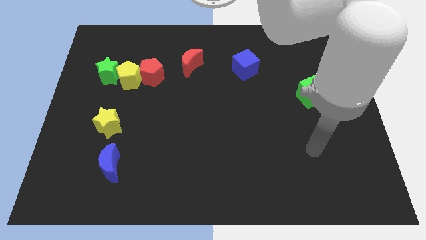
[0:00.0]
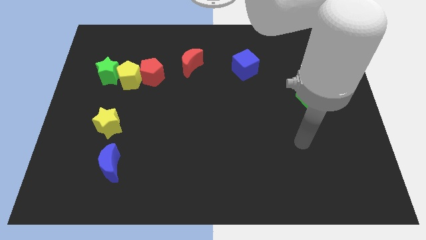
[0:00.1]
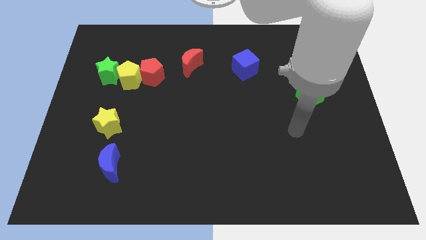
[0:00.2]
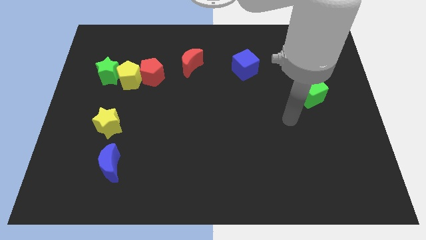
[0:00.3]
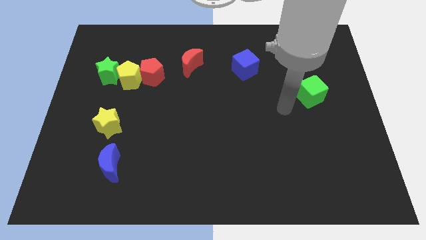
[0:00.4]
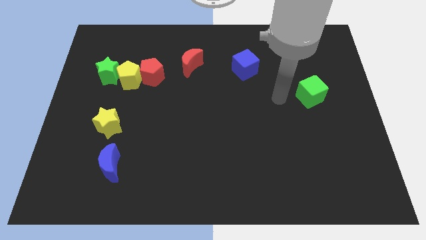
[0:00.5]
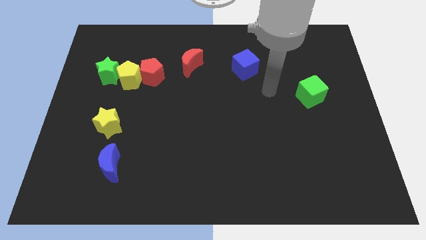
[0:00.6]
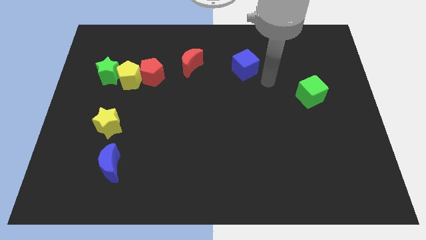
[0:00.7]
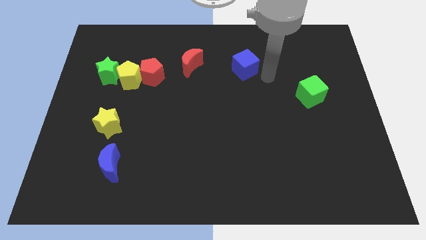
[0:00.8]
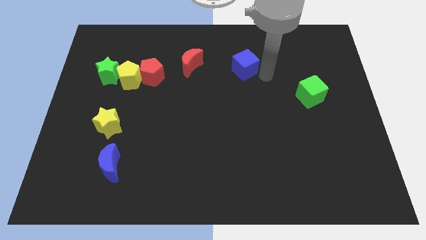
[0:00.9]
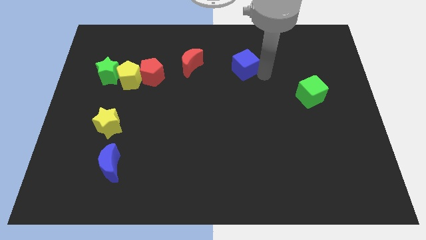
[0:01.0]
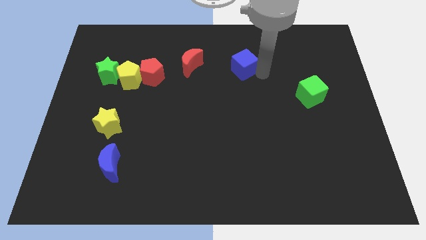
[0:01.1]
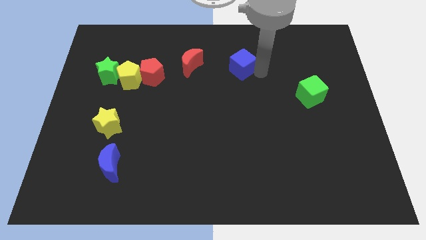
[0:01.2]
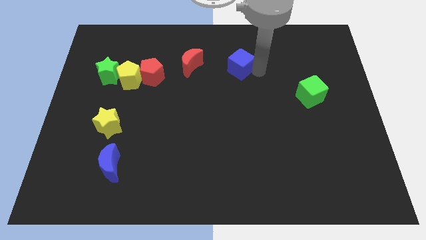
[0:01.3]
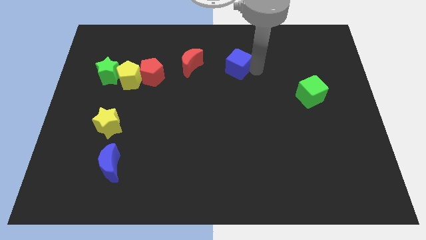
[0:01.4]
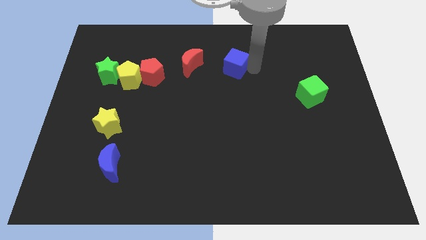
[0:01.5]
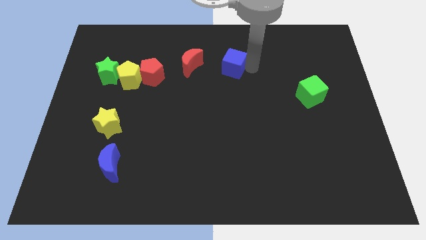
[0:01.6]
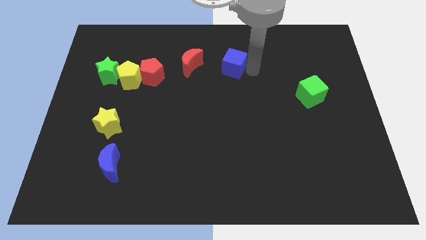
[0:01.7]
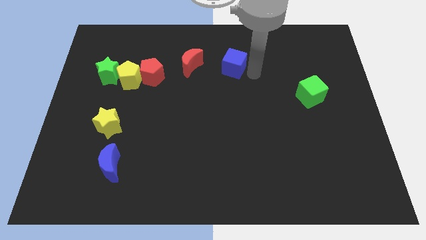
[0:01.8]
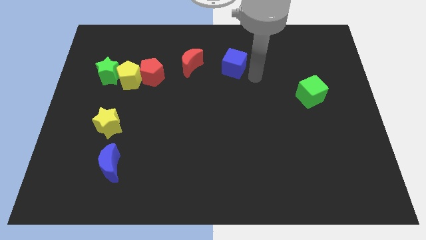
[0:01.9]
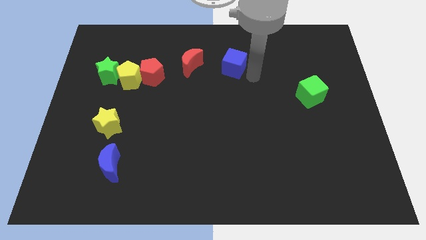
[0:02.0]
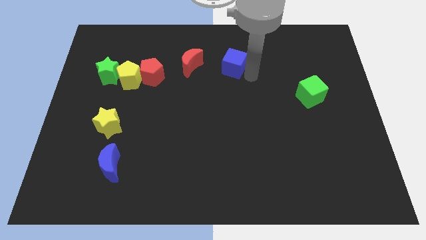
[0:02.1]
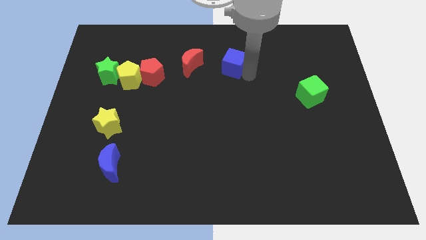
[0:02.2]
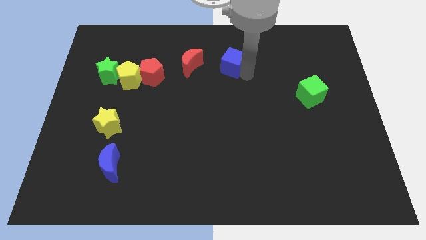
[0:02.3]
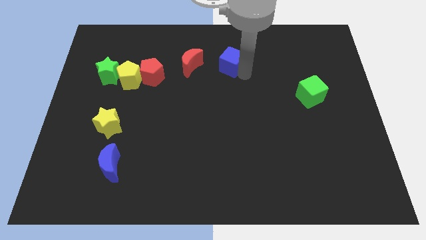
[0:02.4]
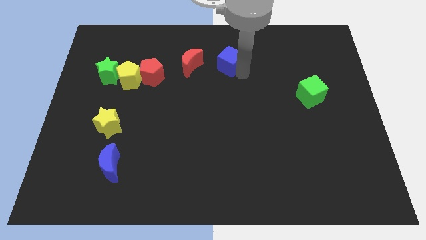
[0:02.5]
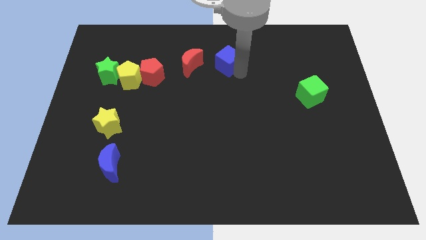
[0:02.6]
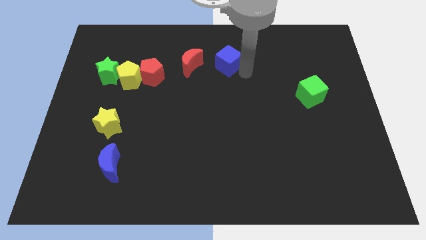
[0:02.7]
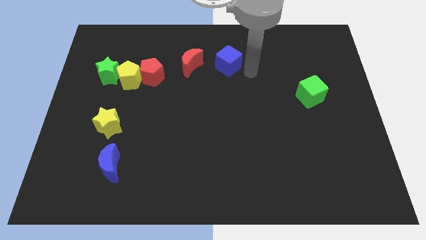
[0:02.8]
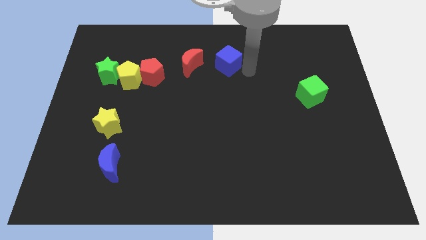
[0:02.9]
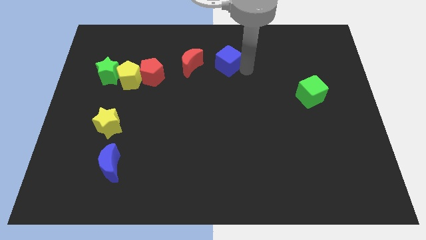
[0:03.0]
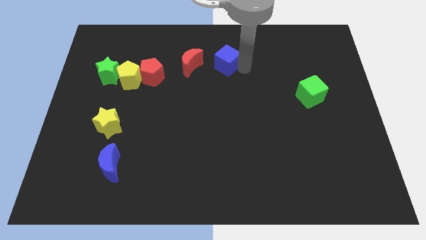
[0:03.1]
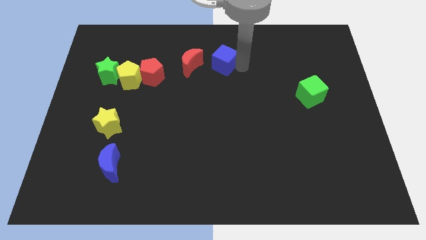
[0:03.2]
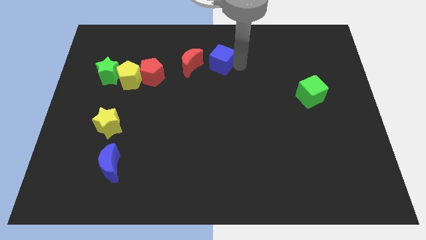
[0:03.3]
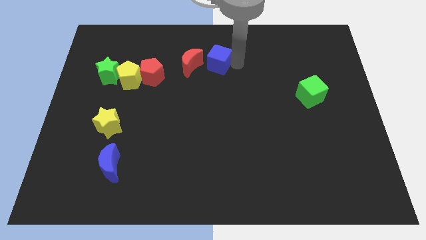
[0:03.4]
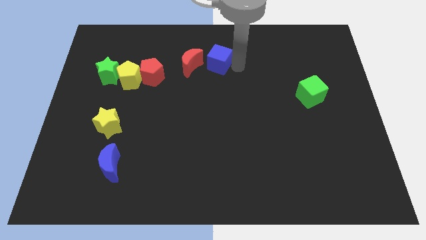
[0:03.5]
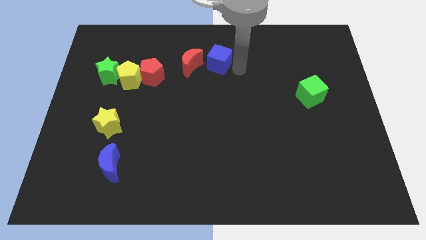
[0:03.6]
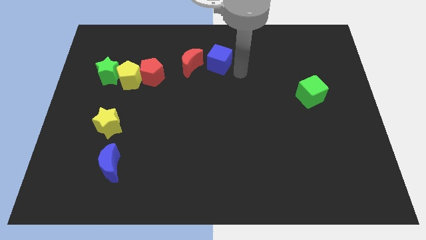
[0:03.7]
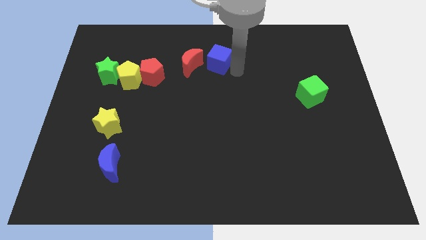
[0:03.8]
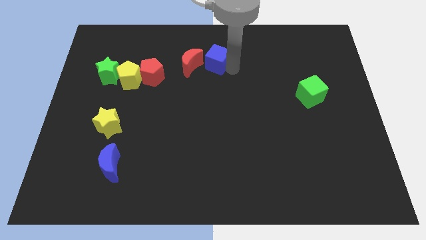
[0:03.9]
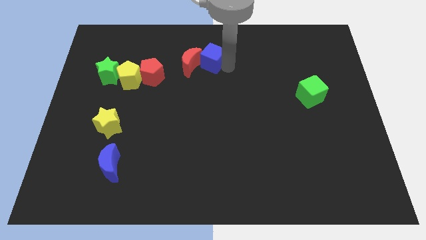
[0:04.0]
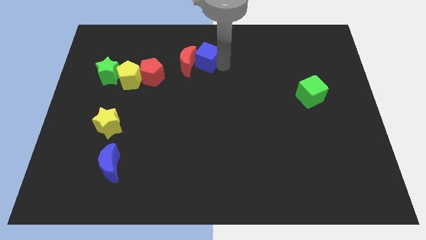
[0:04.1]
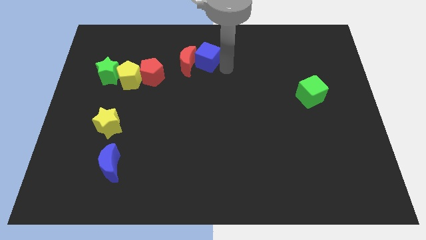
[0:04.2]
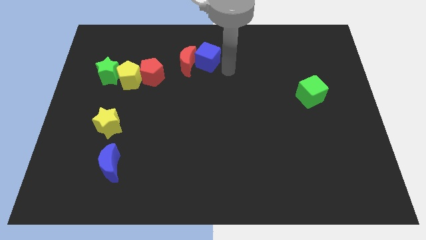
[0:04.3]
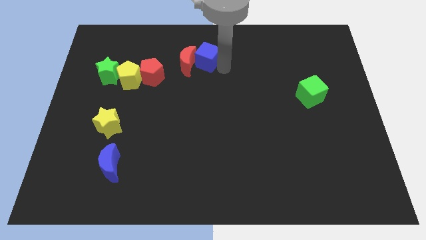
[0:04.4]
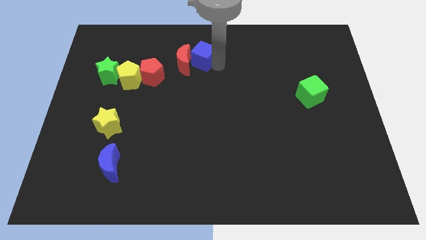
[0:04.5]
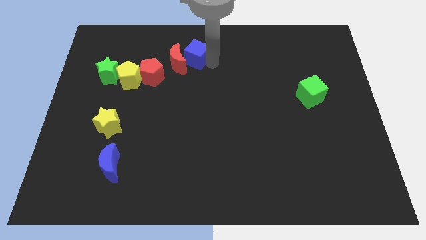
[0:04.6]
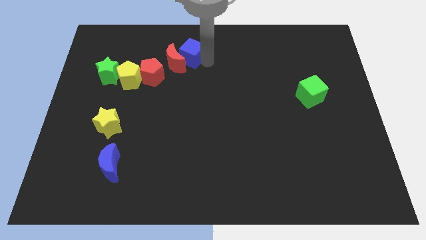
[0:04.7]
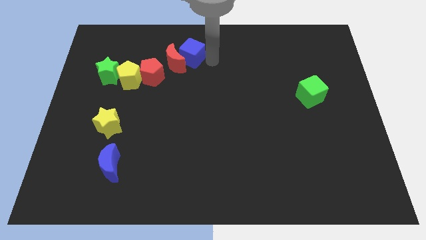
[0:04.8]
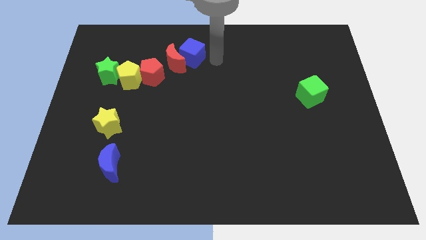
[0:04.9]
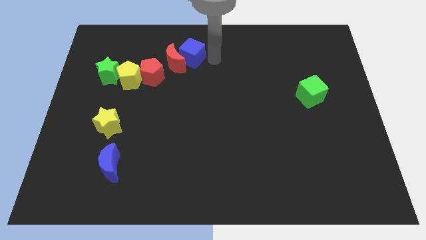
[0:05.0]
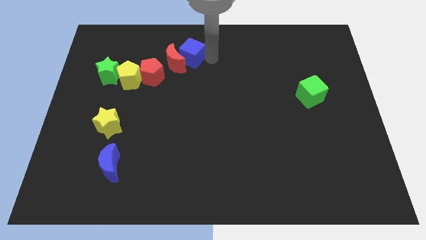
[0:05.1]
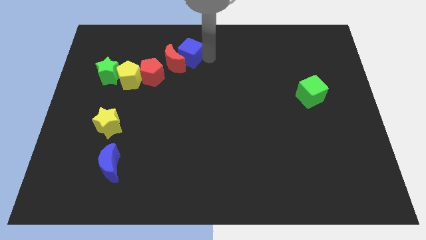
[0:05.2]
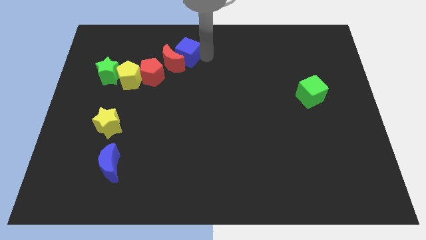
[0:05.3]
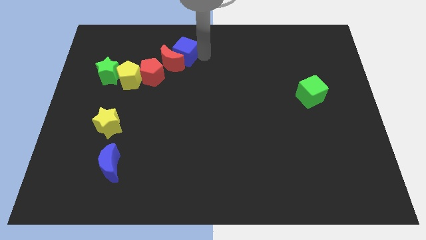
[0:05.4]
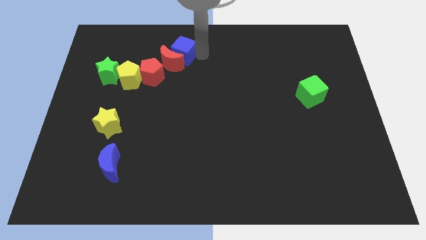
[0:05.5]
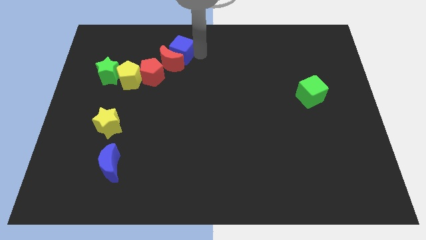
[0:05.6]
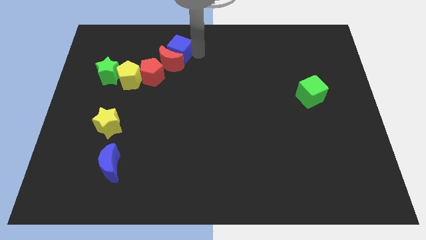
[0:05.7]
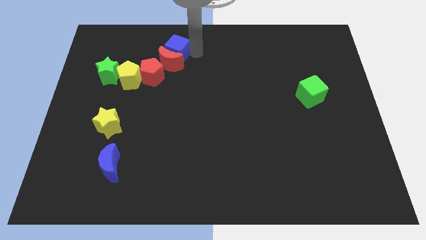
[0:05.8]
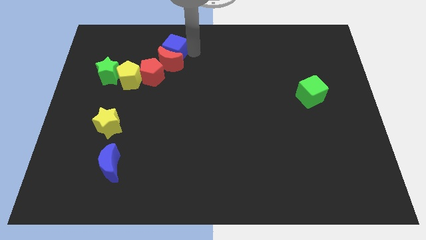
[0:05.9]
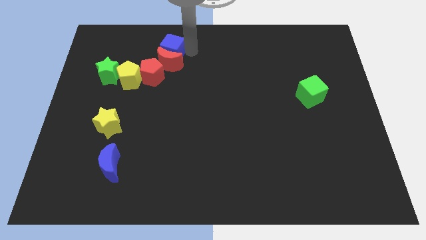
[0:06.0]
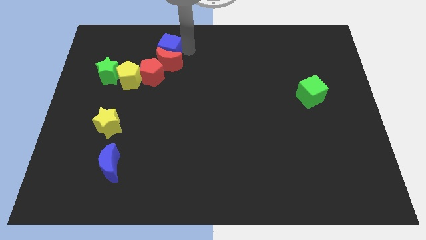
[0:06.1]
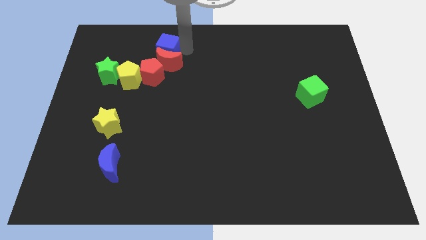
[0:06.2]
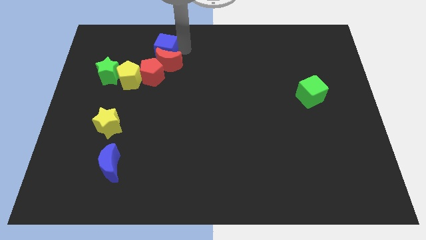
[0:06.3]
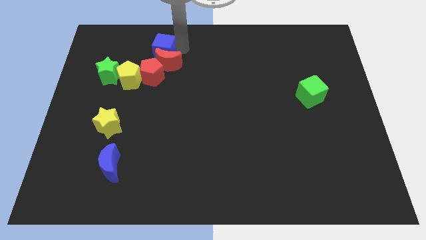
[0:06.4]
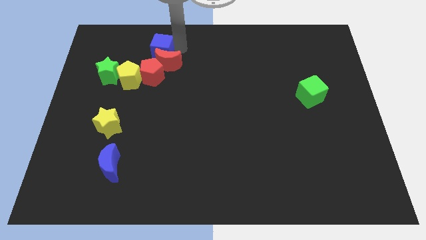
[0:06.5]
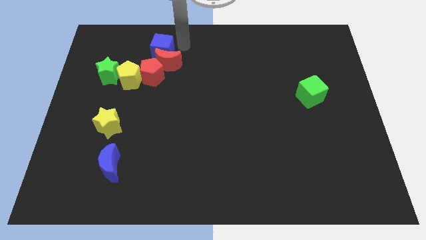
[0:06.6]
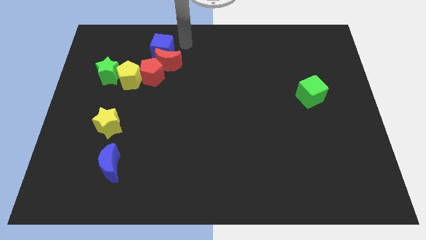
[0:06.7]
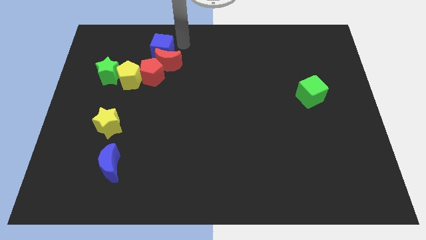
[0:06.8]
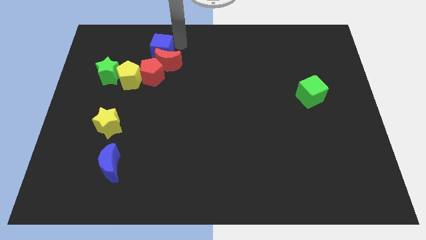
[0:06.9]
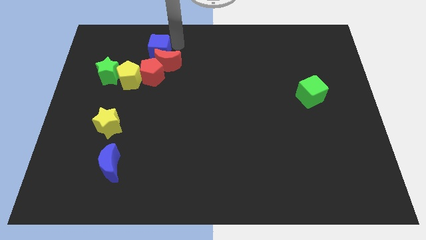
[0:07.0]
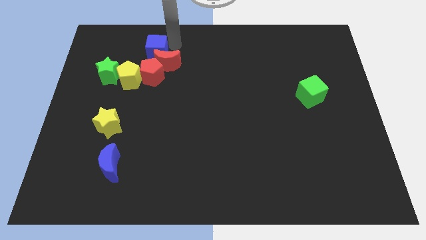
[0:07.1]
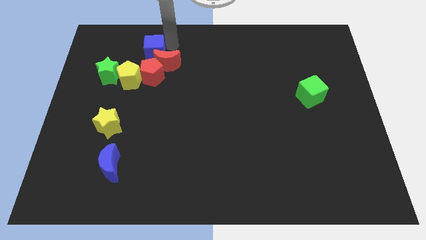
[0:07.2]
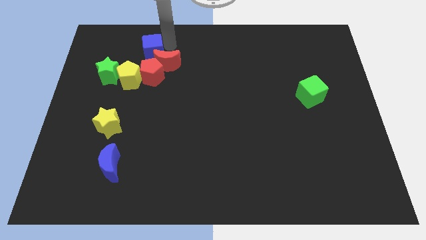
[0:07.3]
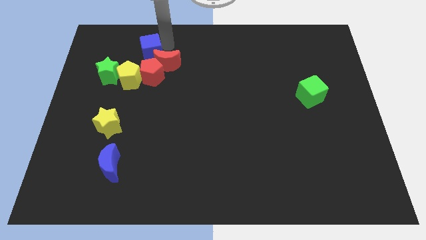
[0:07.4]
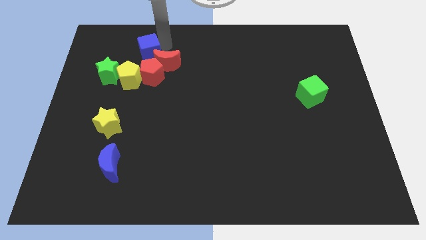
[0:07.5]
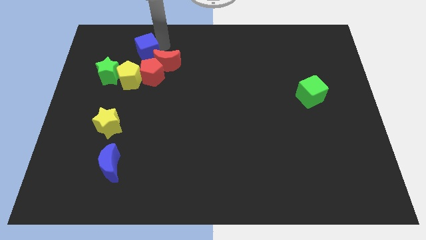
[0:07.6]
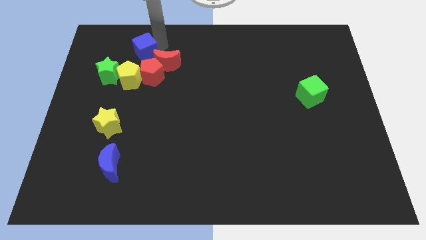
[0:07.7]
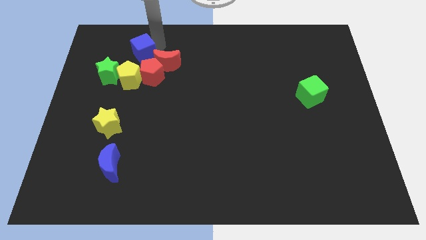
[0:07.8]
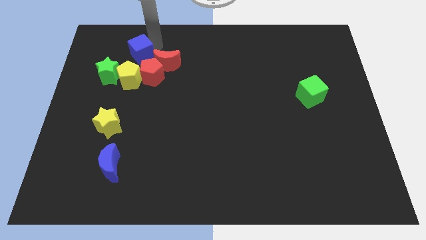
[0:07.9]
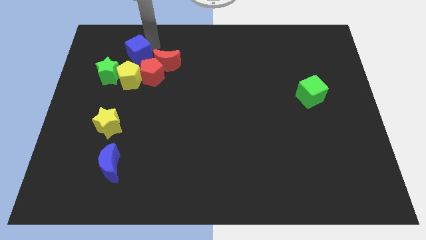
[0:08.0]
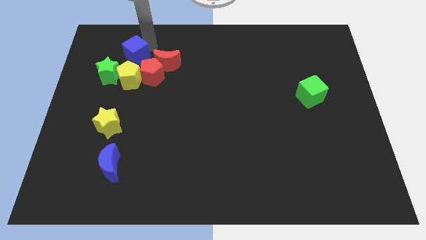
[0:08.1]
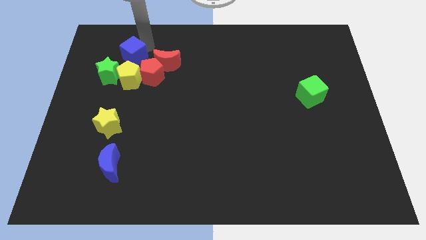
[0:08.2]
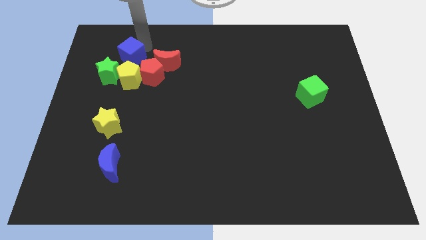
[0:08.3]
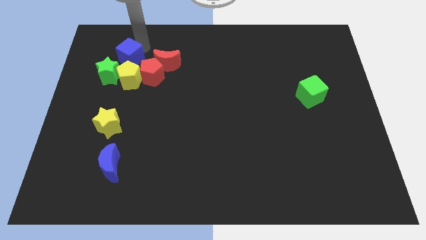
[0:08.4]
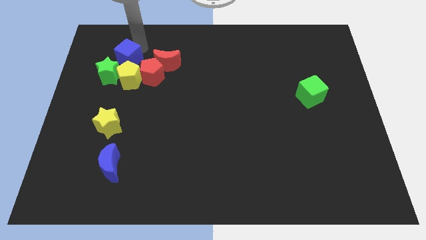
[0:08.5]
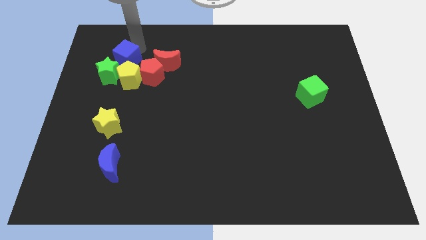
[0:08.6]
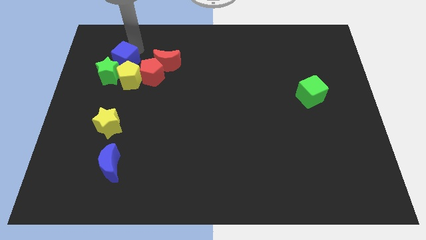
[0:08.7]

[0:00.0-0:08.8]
put the blue cube to the green star
